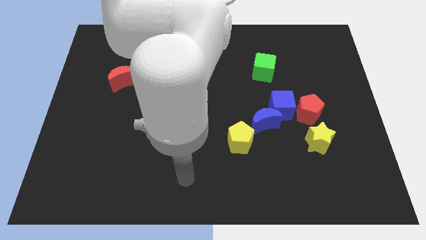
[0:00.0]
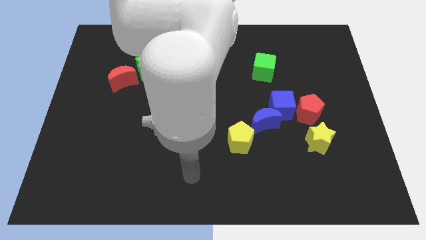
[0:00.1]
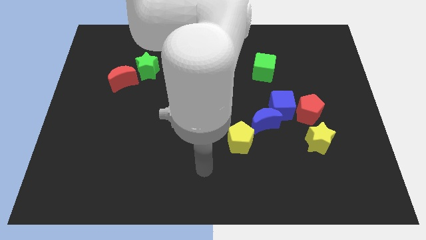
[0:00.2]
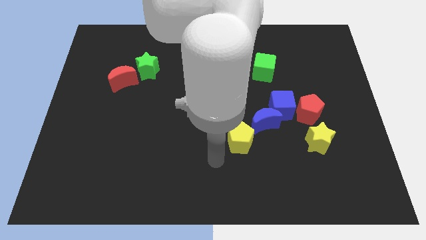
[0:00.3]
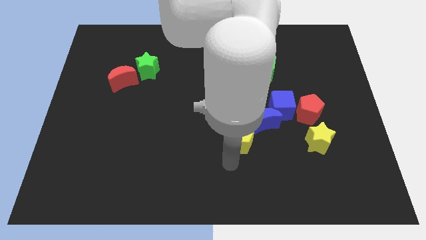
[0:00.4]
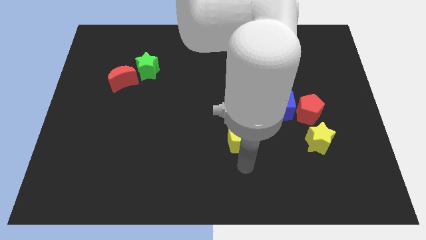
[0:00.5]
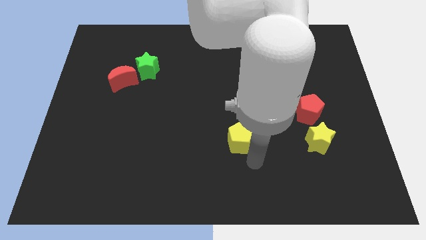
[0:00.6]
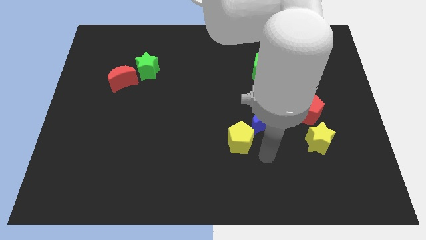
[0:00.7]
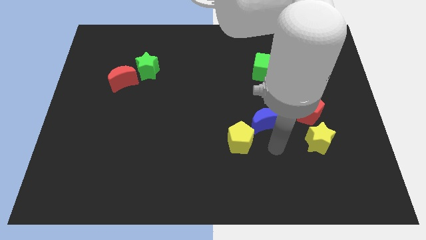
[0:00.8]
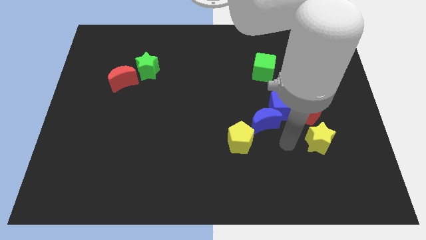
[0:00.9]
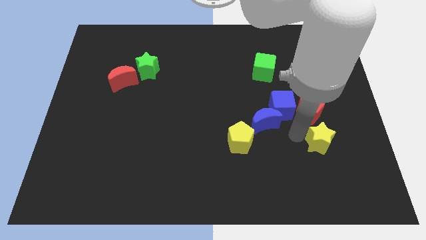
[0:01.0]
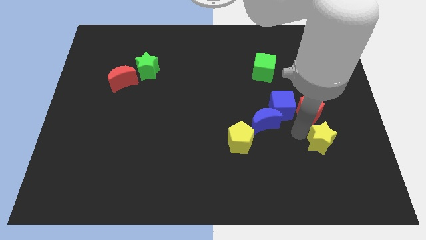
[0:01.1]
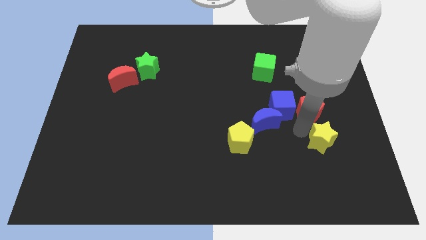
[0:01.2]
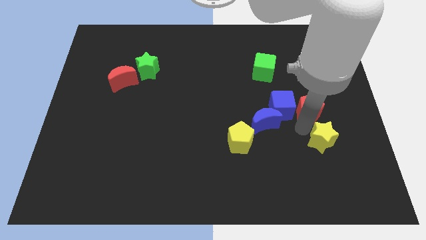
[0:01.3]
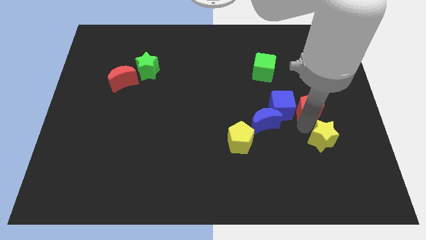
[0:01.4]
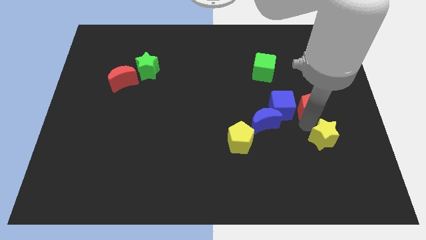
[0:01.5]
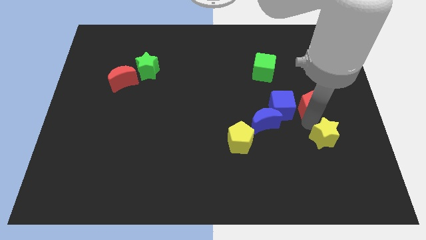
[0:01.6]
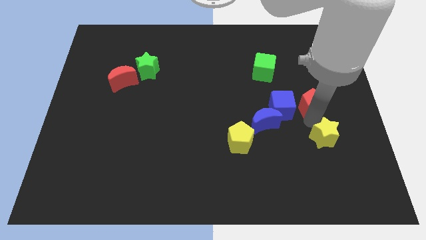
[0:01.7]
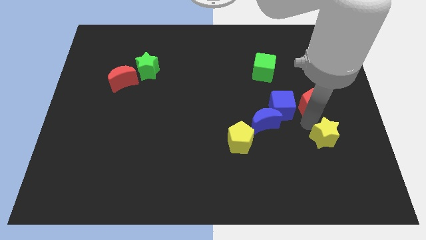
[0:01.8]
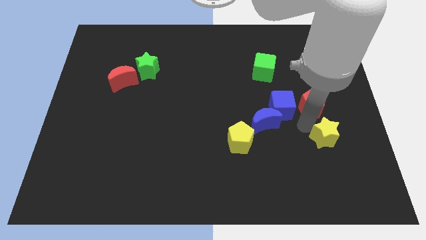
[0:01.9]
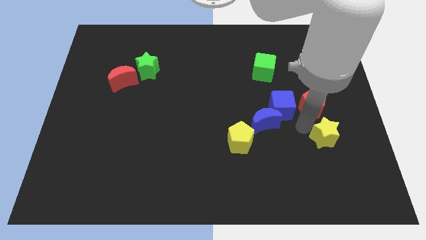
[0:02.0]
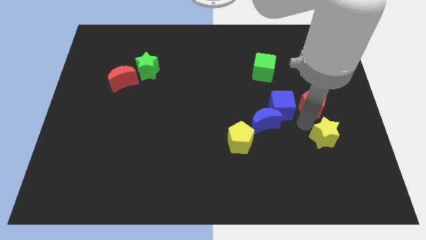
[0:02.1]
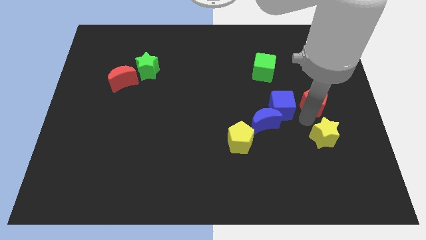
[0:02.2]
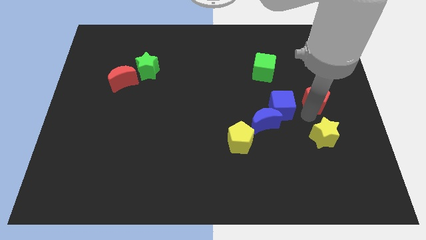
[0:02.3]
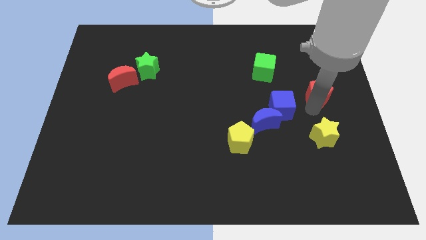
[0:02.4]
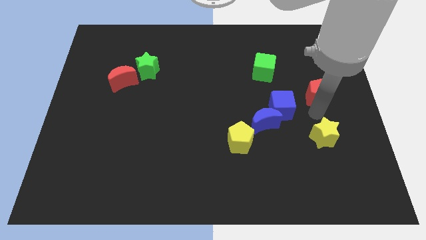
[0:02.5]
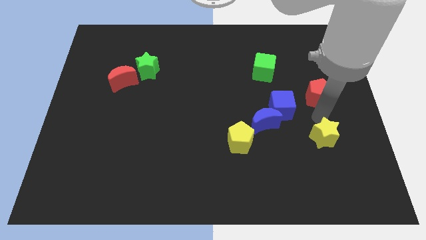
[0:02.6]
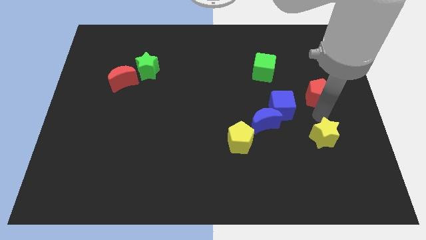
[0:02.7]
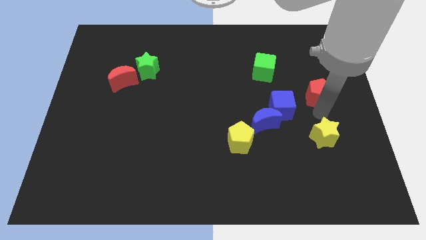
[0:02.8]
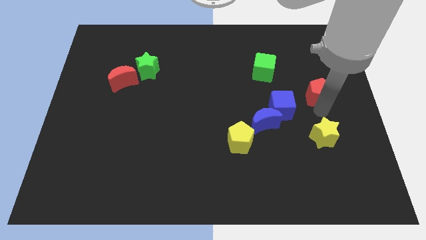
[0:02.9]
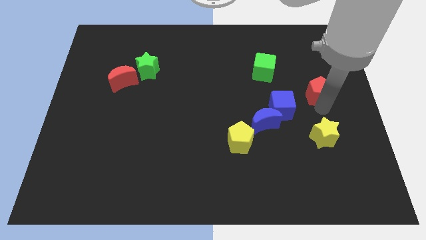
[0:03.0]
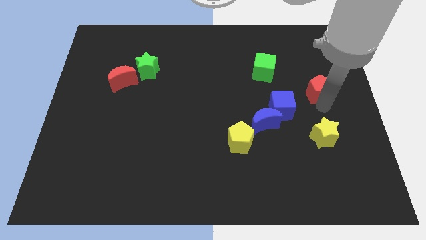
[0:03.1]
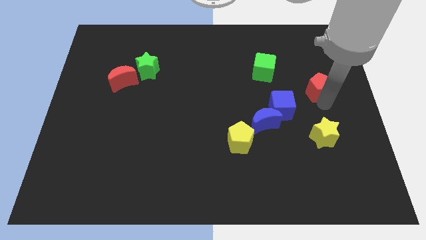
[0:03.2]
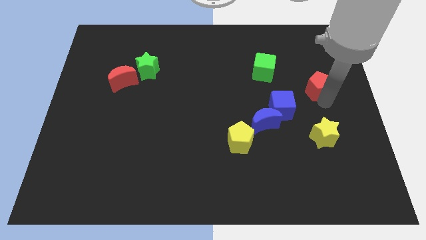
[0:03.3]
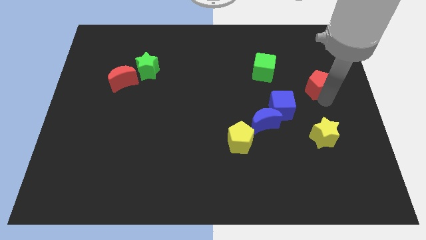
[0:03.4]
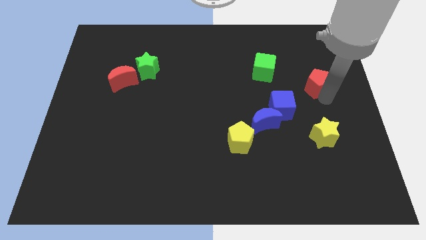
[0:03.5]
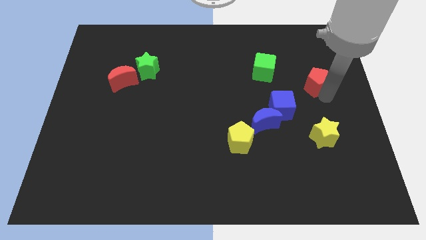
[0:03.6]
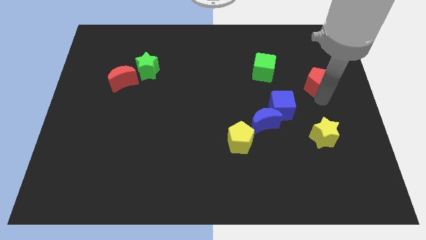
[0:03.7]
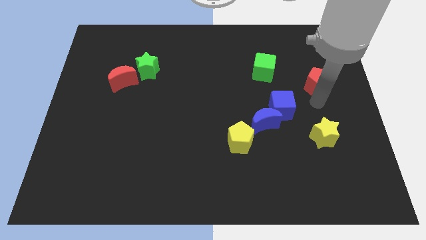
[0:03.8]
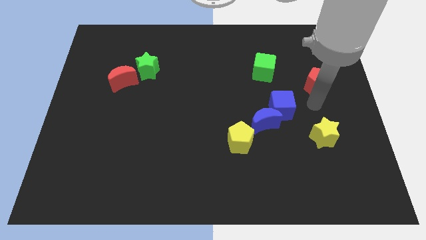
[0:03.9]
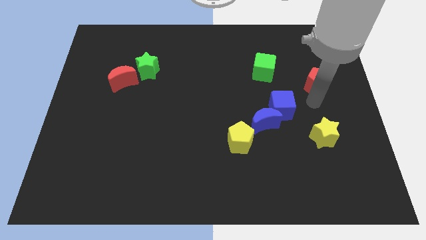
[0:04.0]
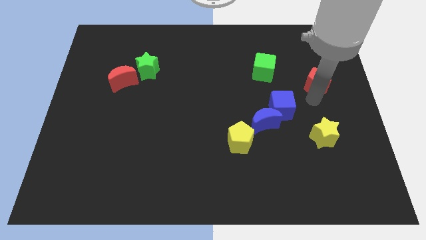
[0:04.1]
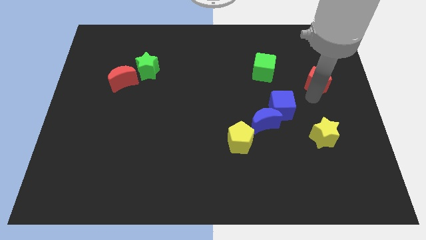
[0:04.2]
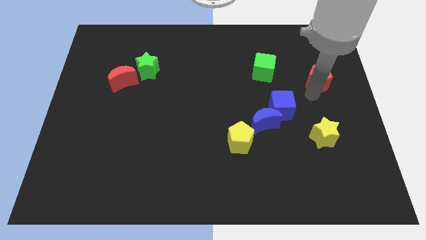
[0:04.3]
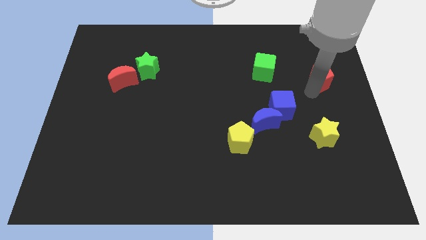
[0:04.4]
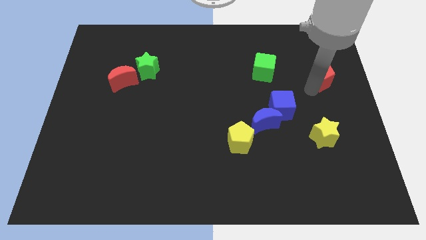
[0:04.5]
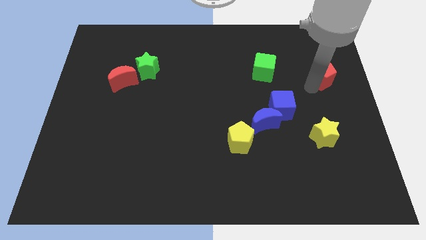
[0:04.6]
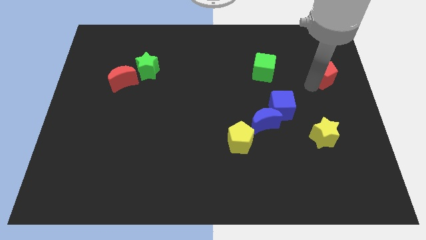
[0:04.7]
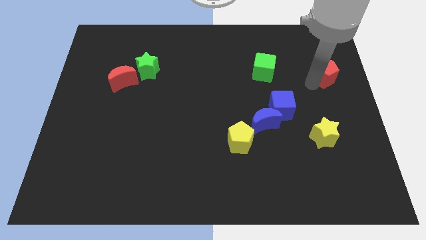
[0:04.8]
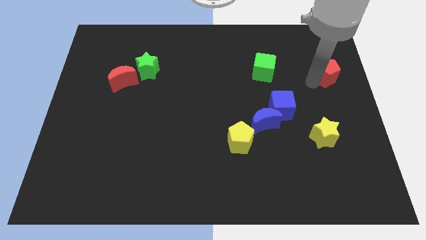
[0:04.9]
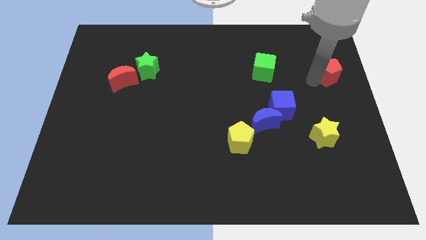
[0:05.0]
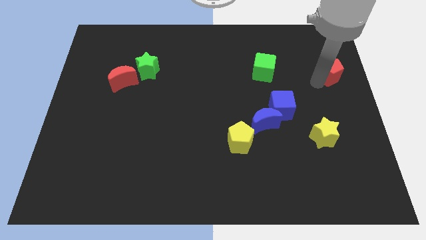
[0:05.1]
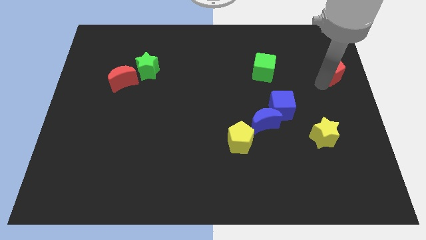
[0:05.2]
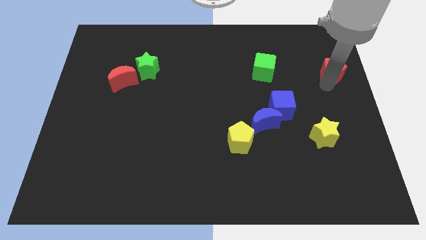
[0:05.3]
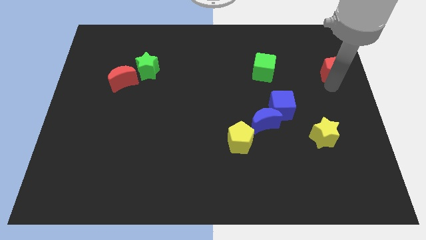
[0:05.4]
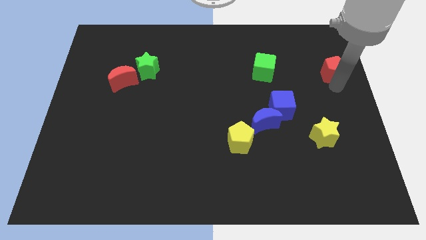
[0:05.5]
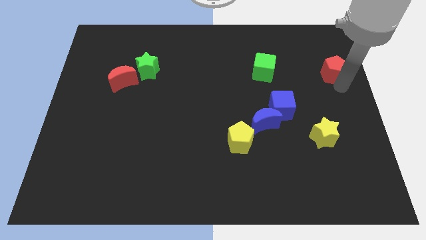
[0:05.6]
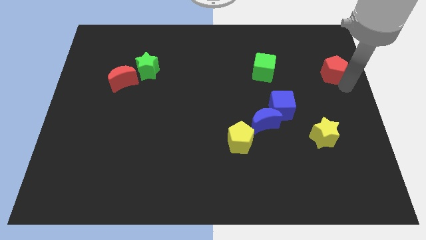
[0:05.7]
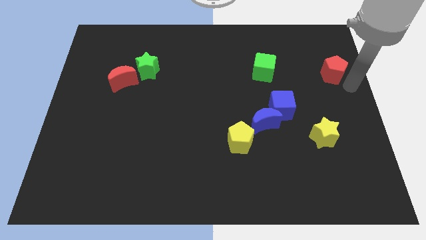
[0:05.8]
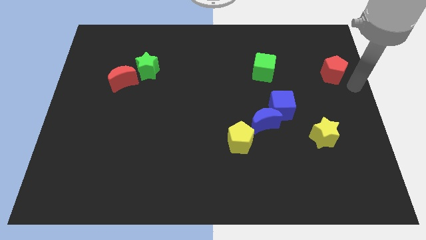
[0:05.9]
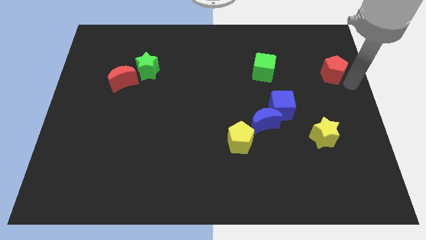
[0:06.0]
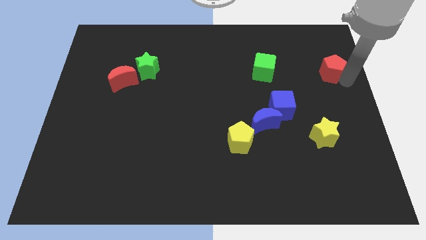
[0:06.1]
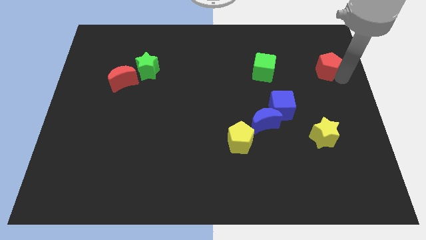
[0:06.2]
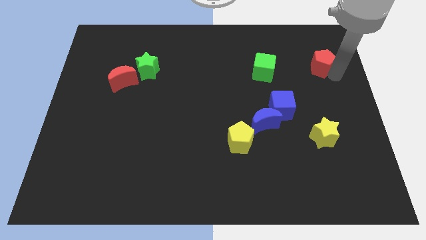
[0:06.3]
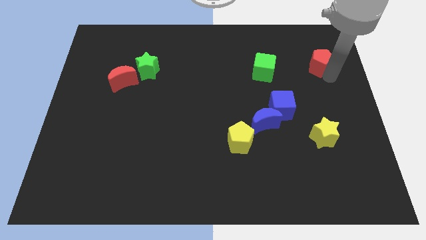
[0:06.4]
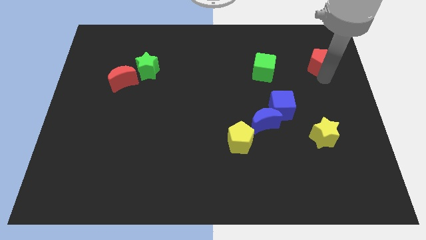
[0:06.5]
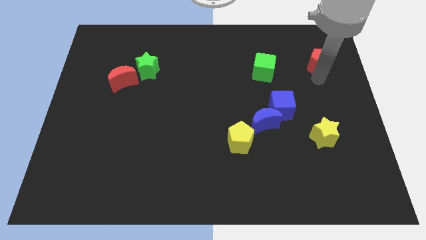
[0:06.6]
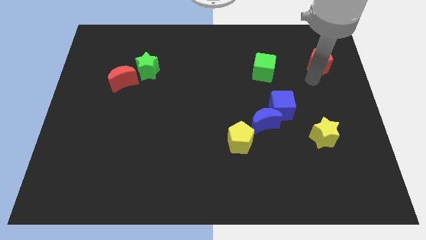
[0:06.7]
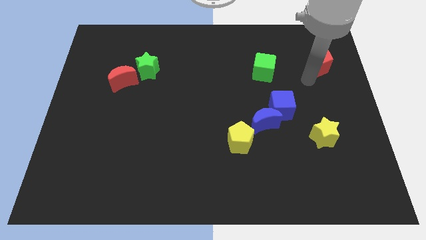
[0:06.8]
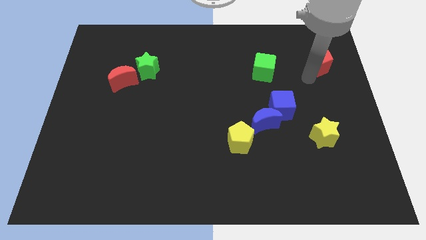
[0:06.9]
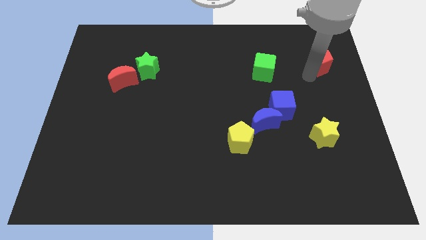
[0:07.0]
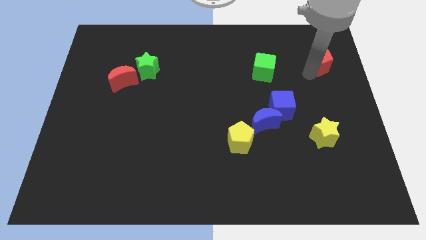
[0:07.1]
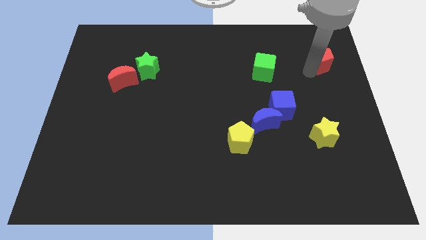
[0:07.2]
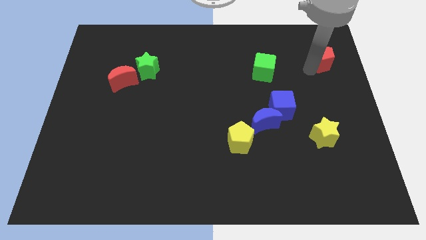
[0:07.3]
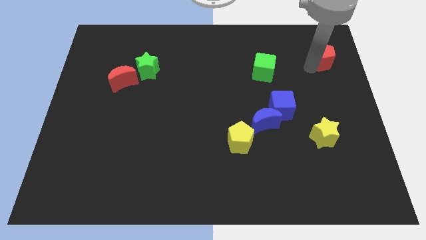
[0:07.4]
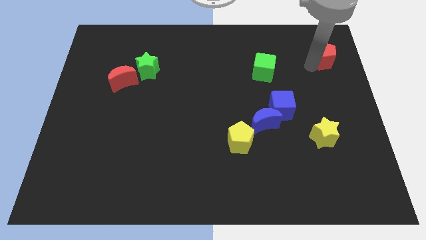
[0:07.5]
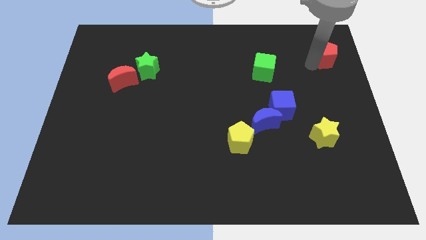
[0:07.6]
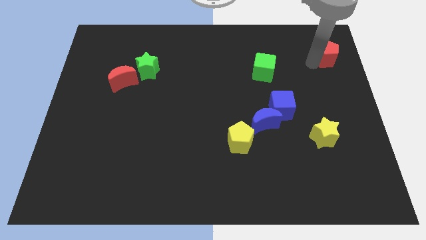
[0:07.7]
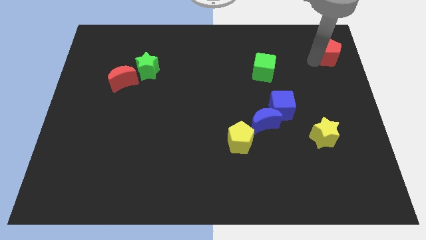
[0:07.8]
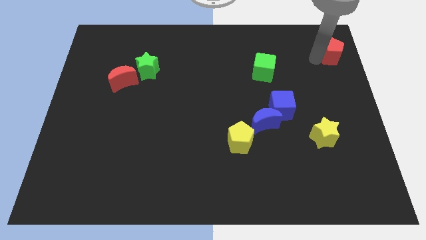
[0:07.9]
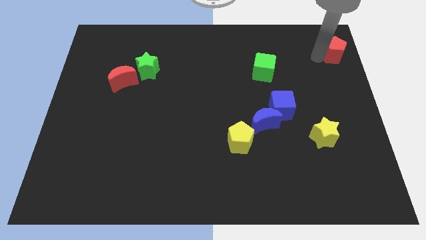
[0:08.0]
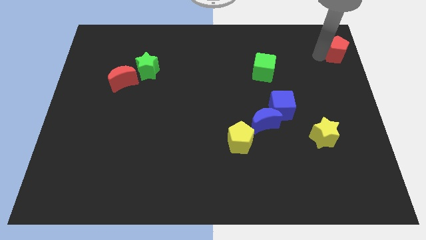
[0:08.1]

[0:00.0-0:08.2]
push the red pentagon to the top right corner
